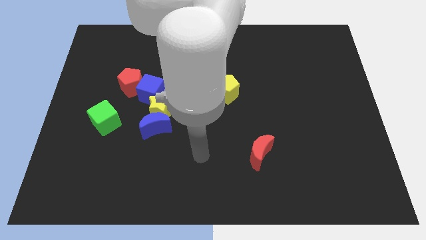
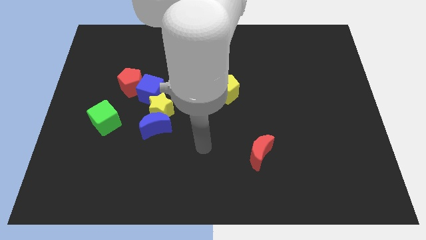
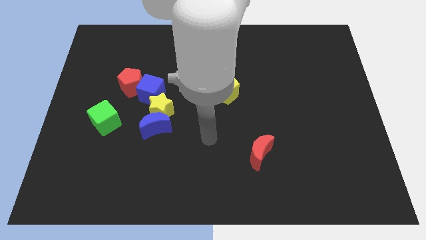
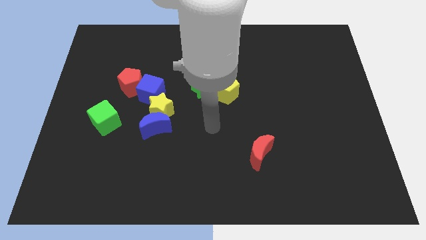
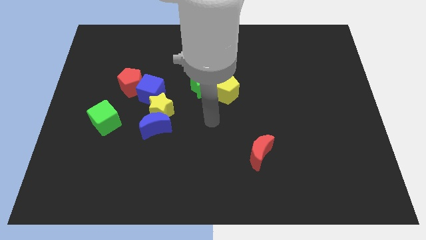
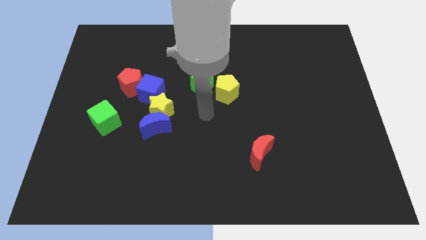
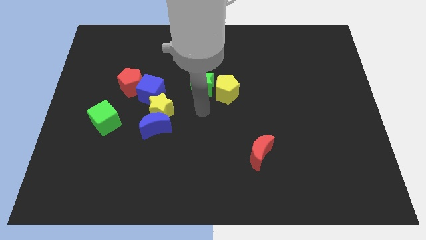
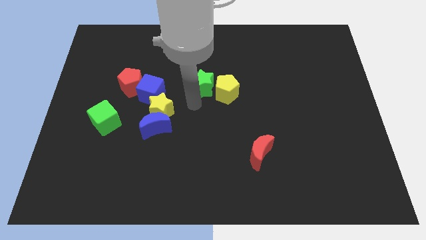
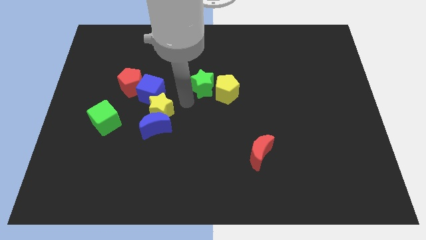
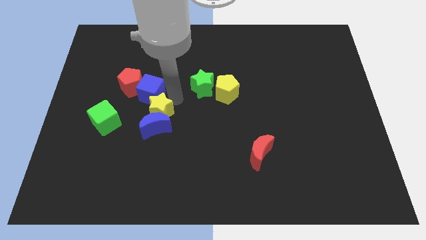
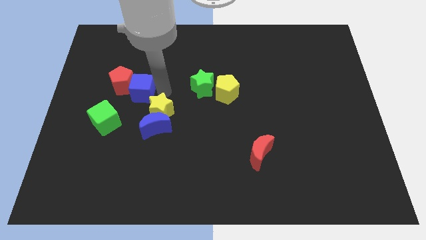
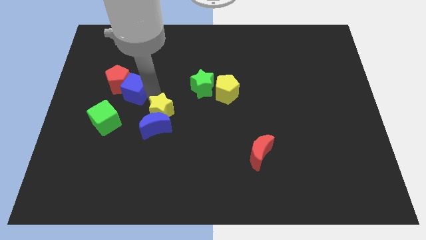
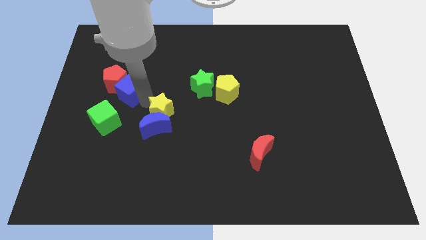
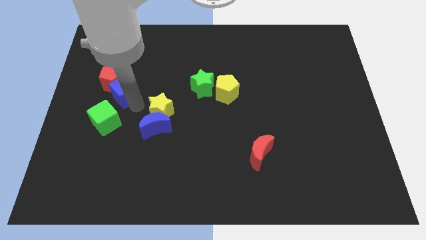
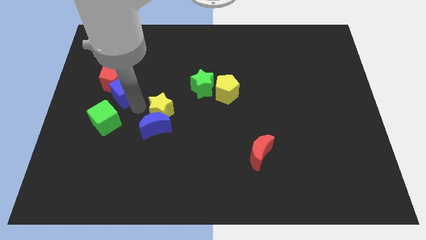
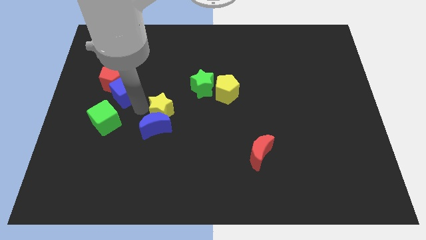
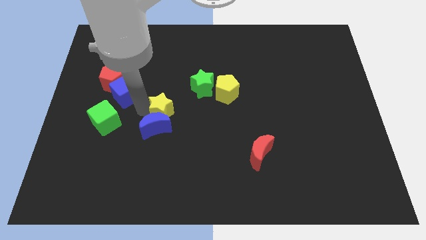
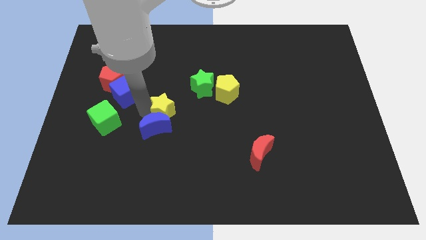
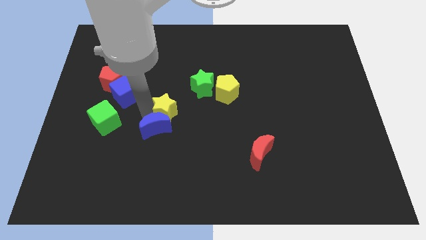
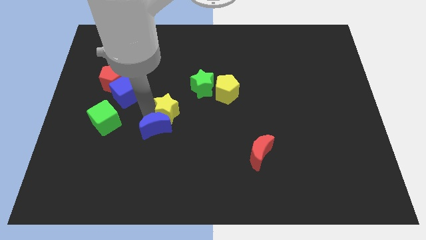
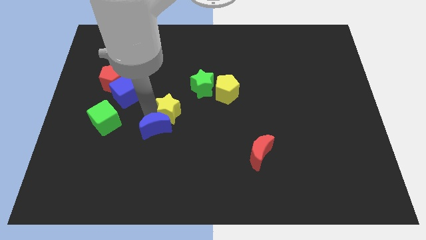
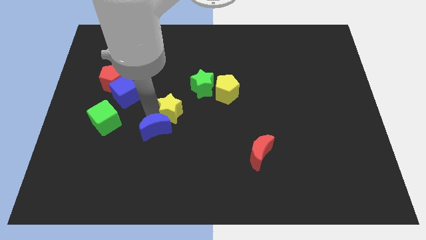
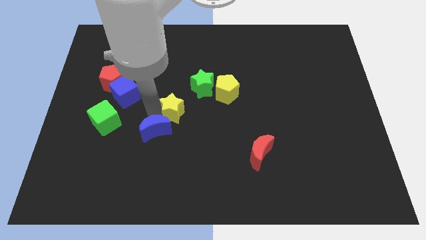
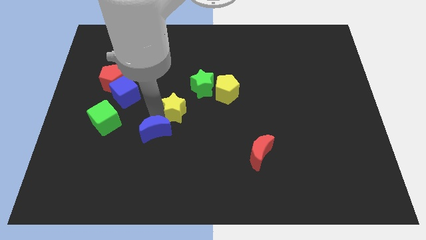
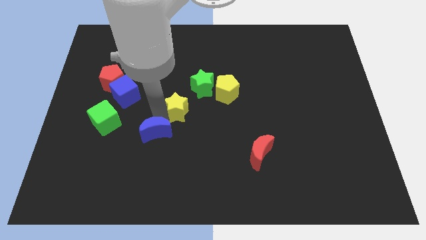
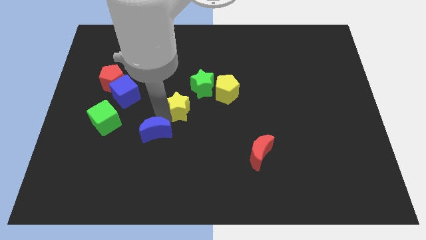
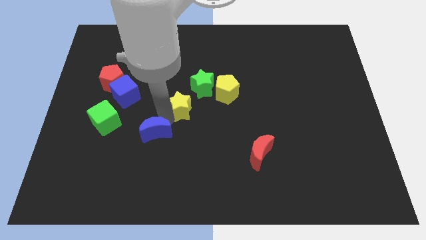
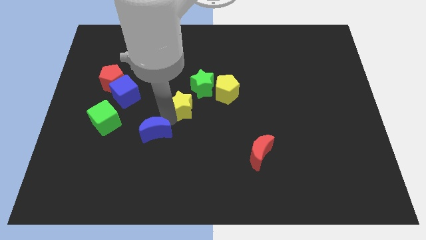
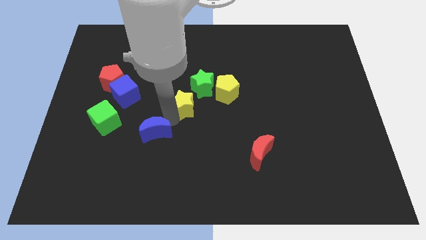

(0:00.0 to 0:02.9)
pull the yellow star apart from the blue moon and blue cube

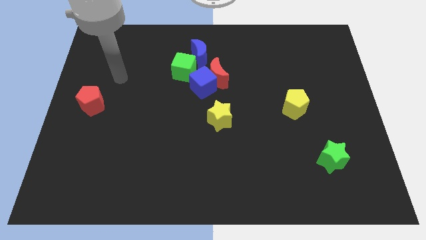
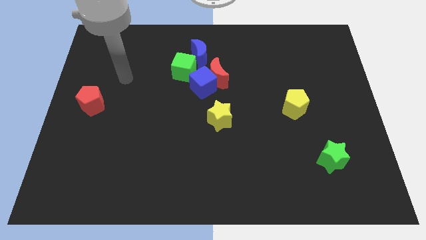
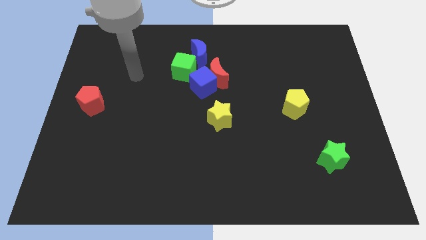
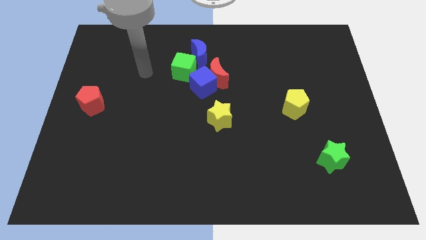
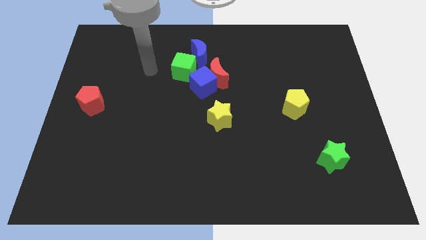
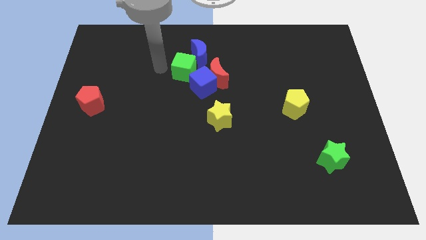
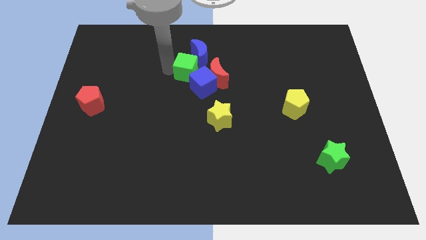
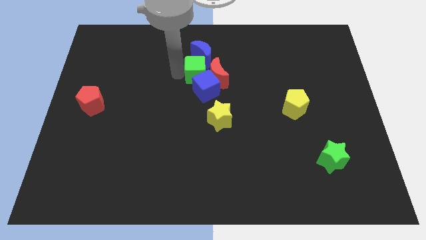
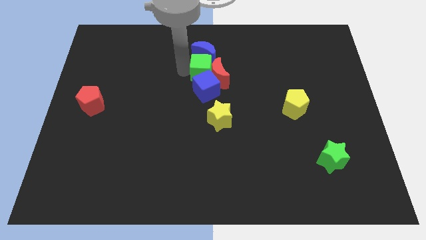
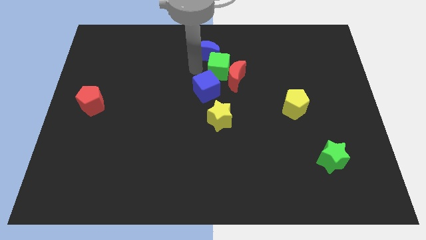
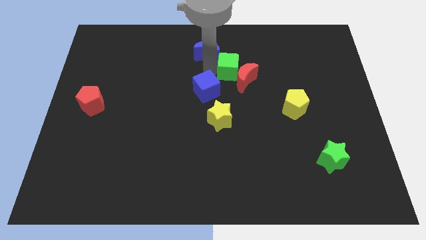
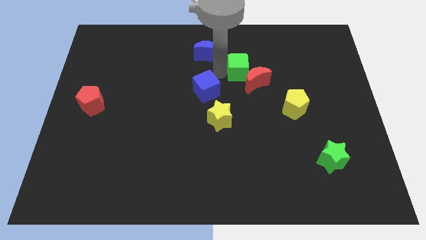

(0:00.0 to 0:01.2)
separate the red moon from the blue cube, blue moon, and green cube

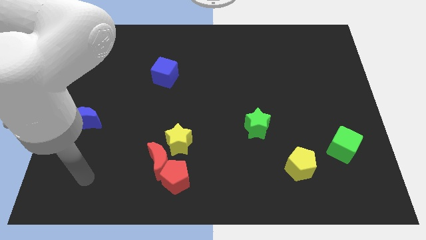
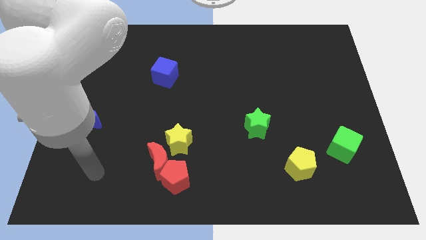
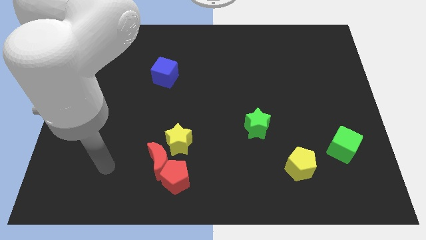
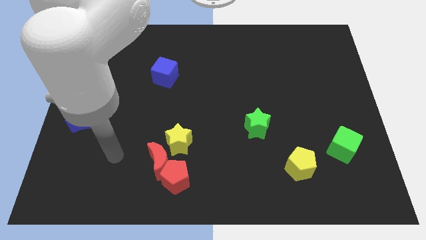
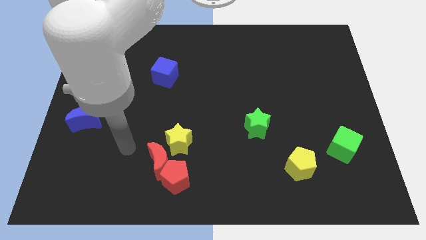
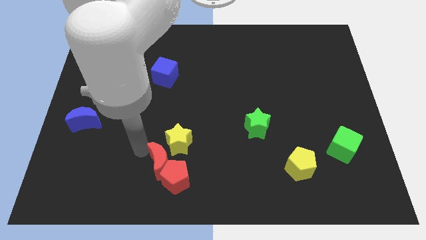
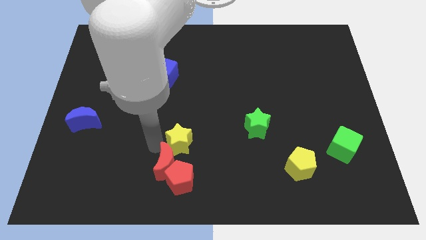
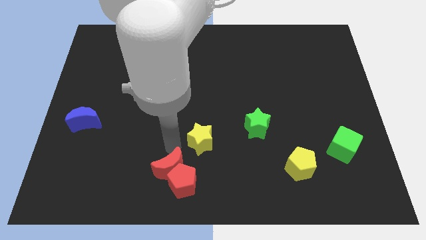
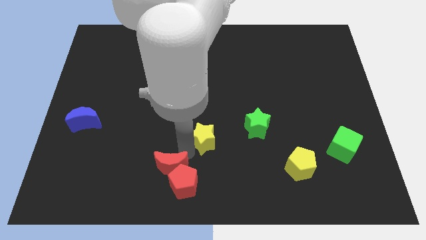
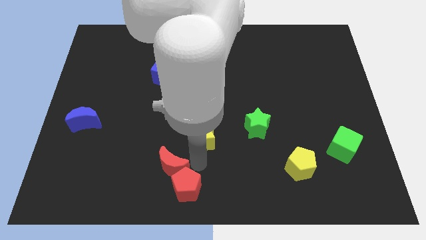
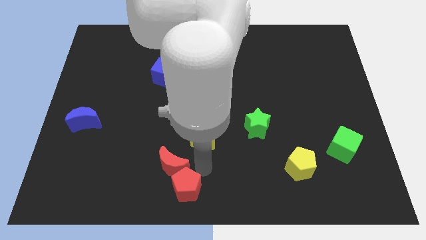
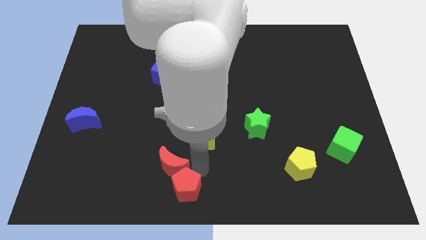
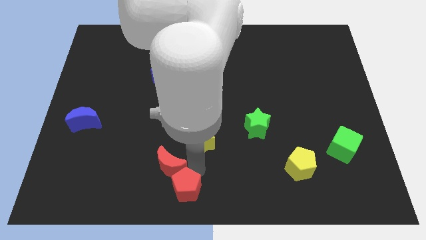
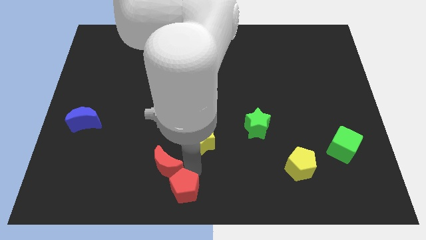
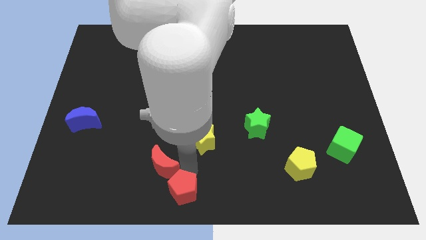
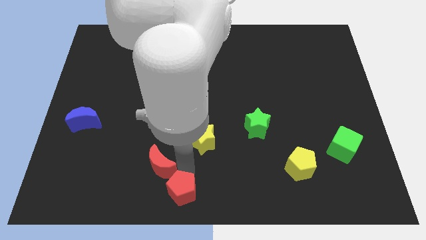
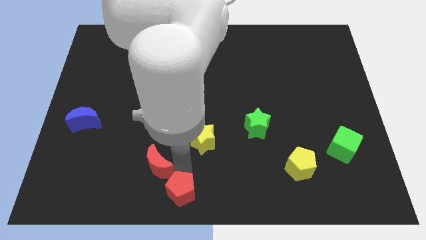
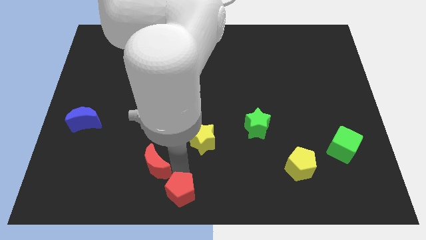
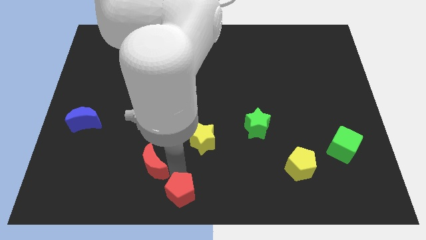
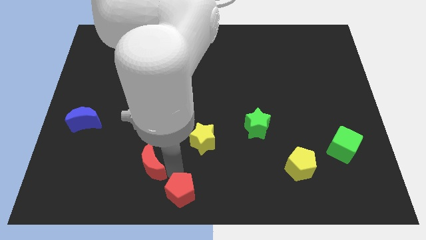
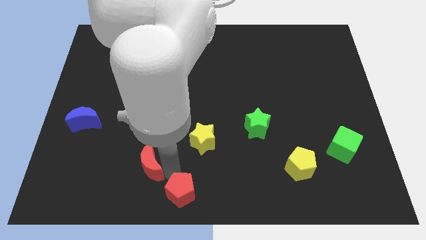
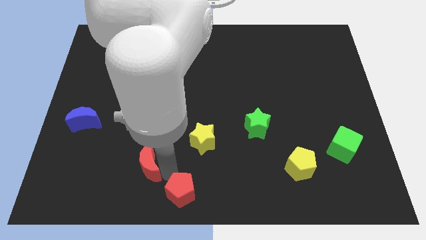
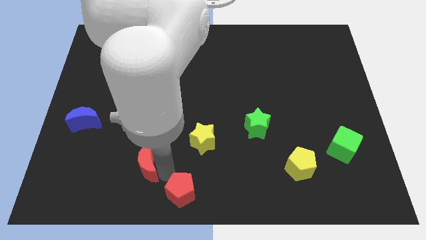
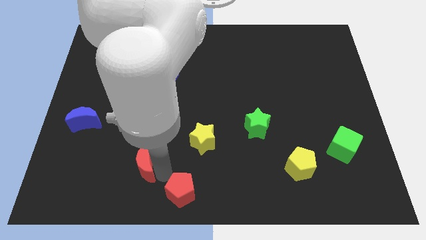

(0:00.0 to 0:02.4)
separate the red moon from the red pentagon and yellow star

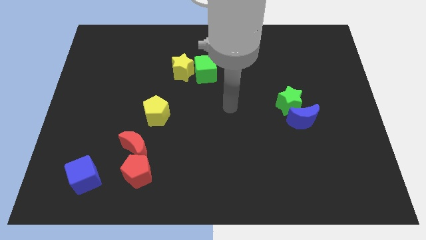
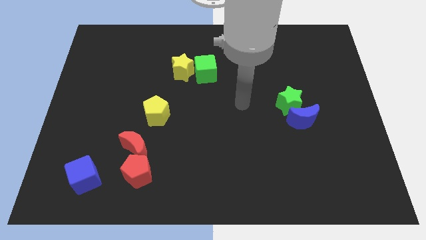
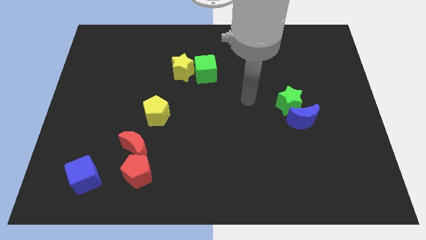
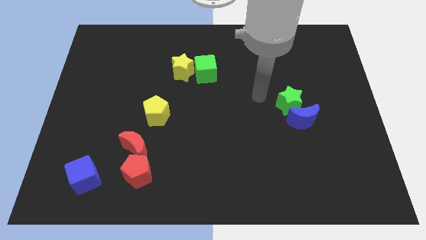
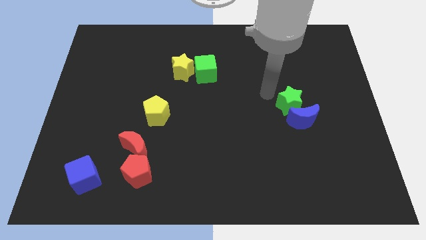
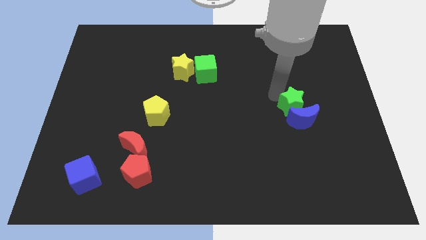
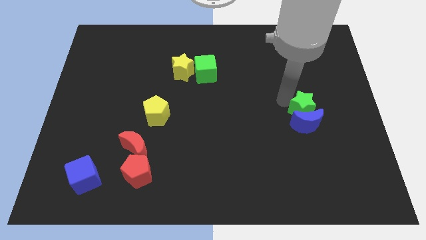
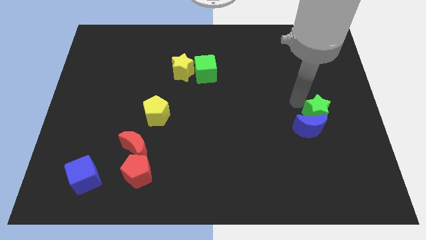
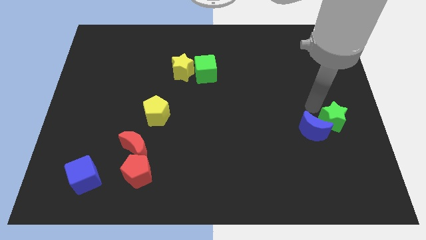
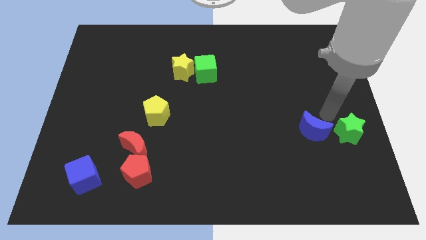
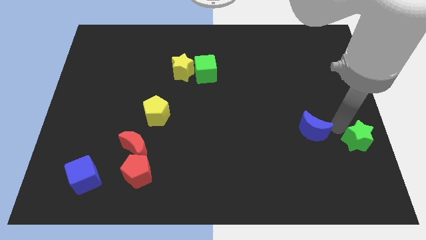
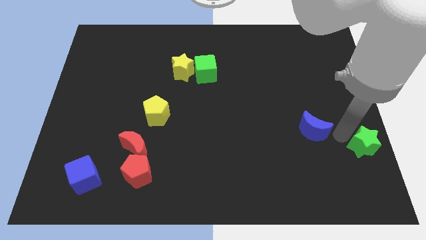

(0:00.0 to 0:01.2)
pull the blue moon apart from the green star

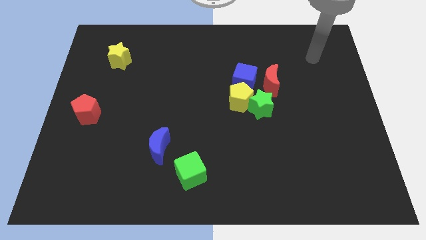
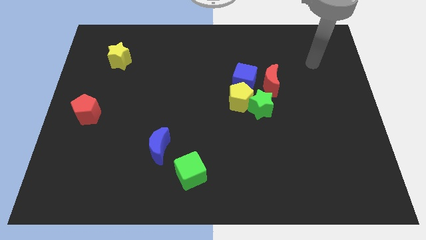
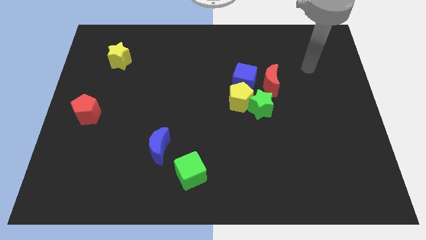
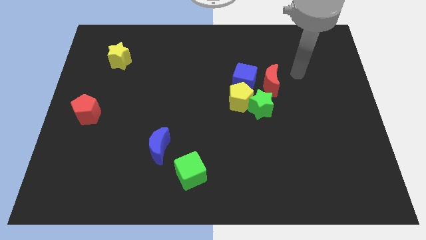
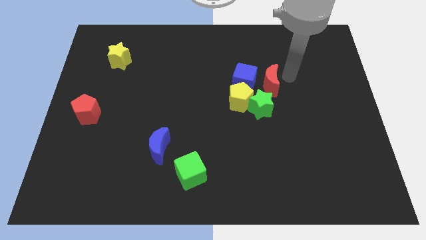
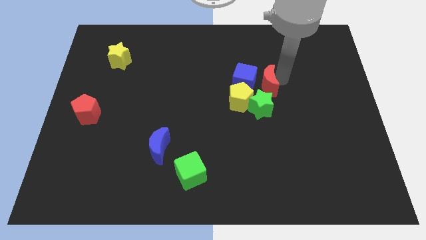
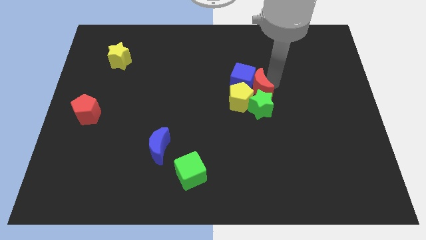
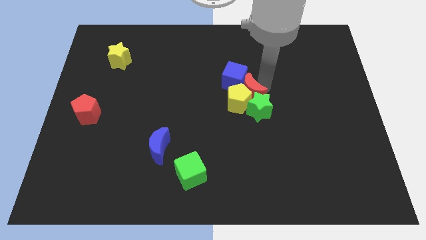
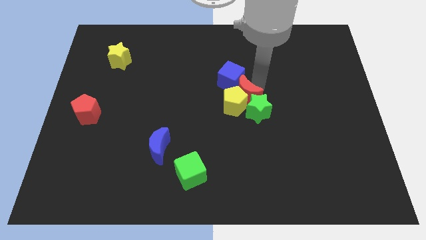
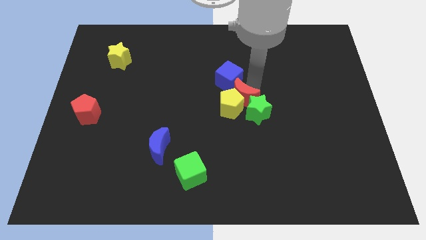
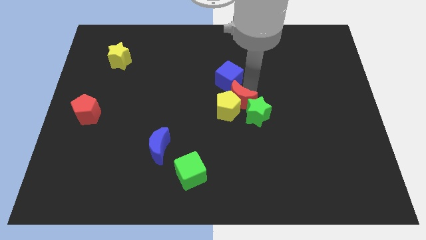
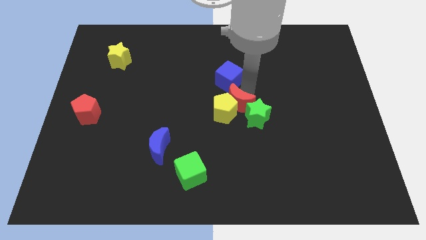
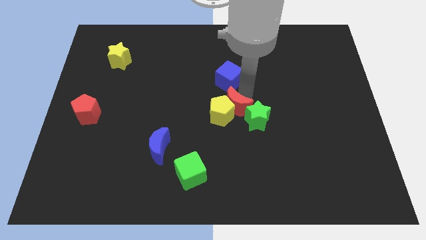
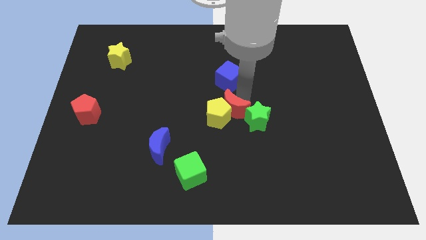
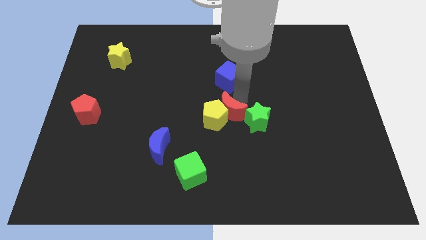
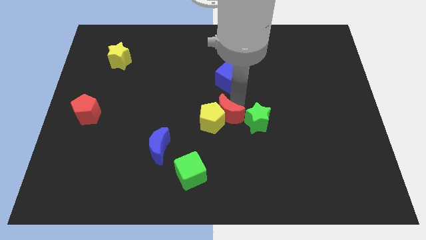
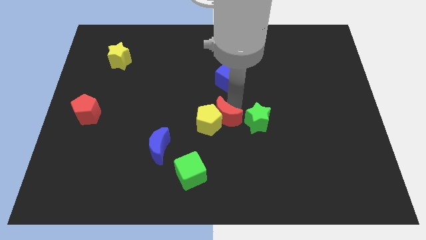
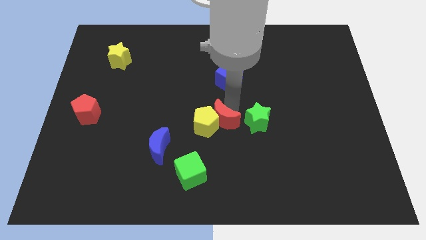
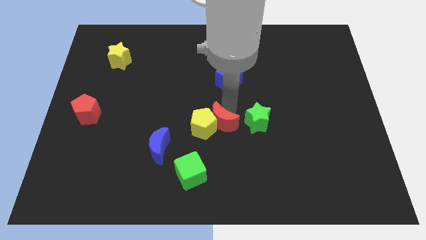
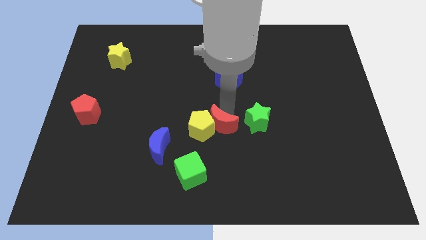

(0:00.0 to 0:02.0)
move the yellow pentagon away from the group
